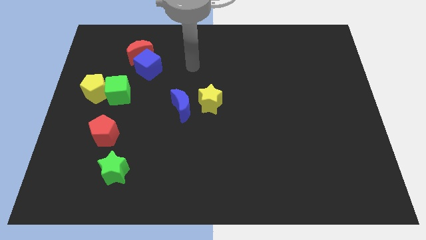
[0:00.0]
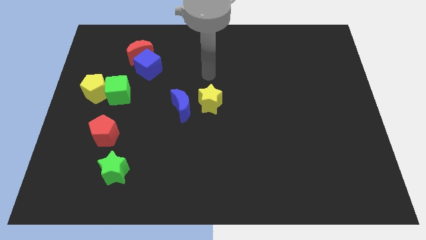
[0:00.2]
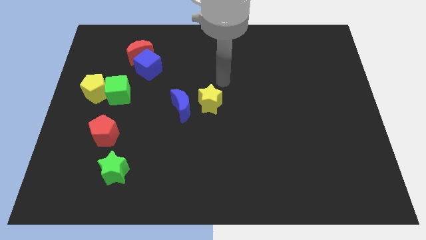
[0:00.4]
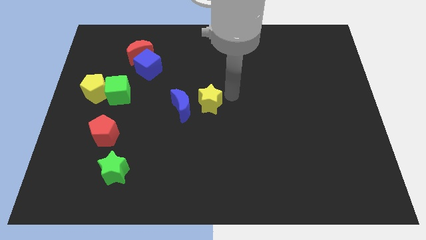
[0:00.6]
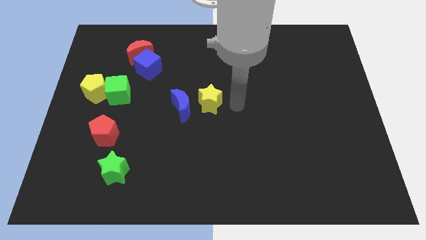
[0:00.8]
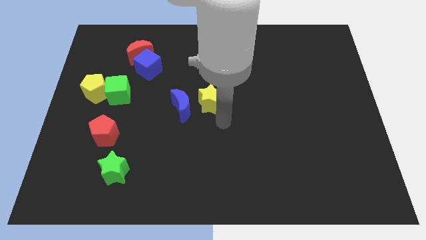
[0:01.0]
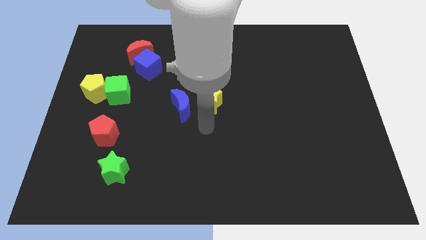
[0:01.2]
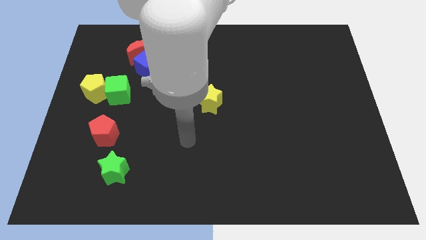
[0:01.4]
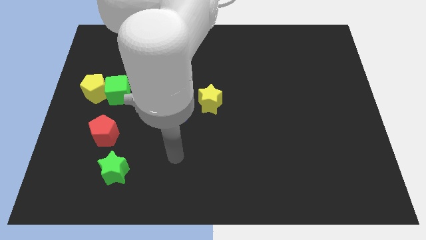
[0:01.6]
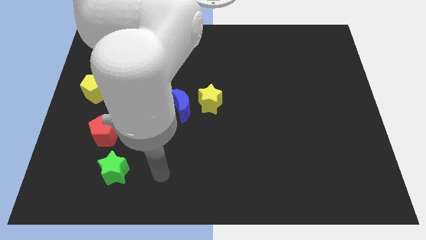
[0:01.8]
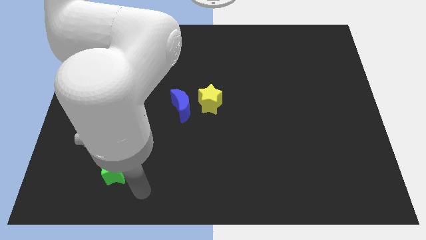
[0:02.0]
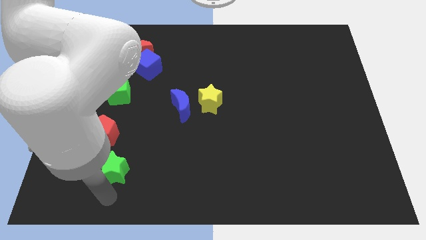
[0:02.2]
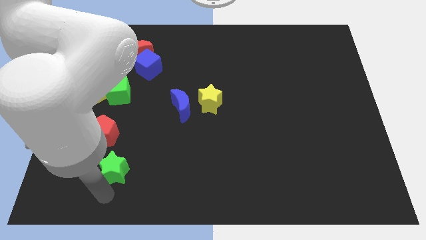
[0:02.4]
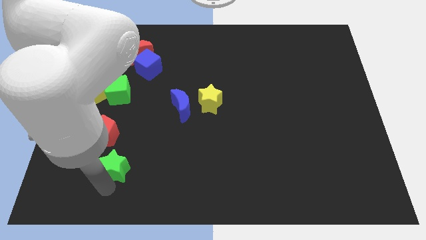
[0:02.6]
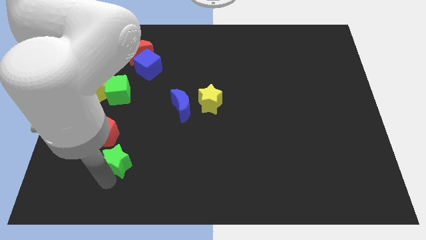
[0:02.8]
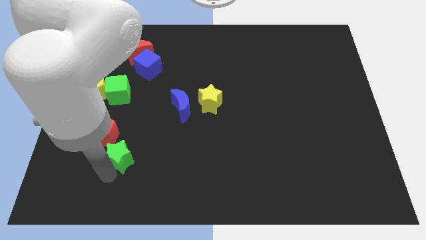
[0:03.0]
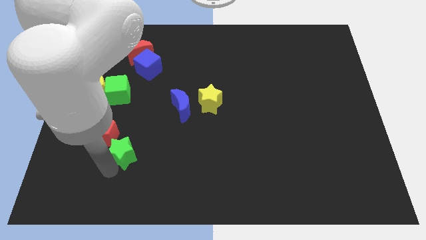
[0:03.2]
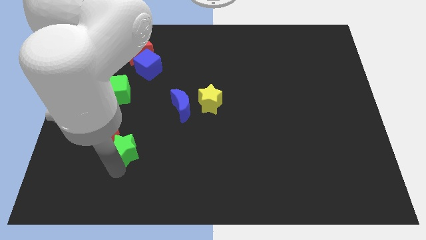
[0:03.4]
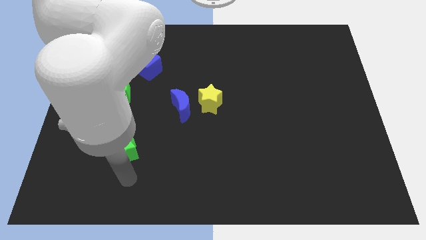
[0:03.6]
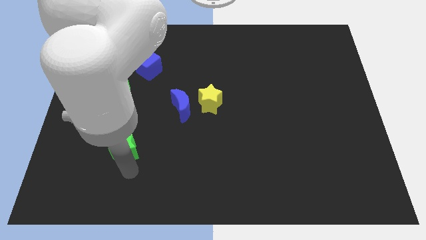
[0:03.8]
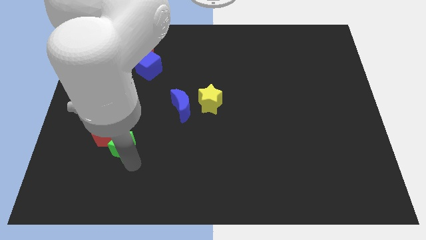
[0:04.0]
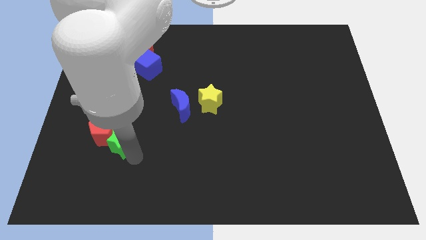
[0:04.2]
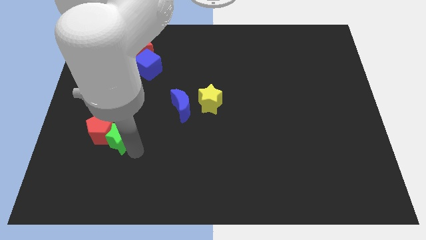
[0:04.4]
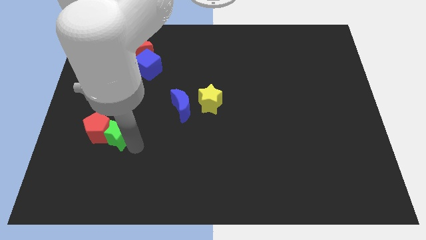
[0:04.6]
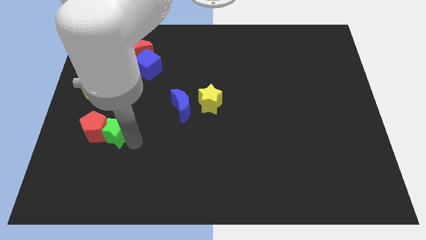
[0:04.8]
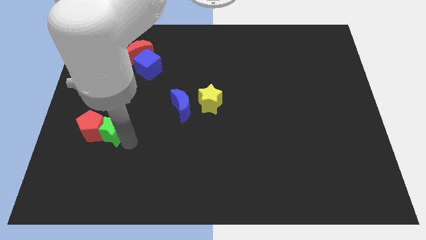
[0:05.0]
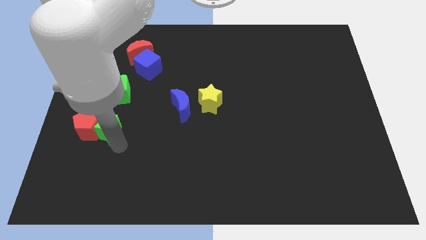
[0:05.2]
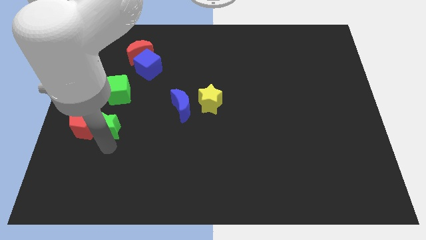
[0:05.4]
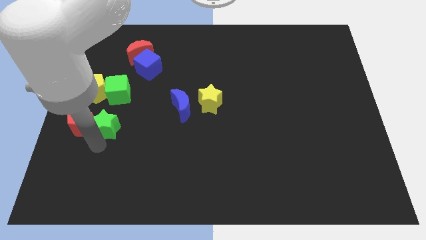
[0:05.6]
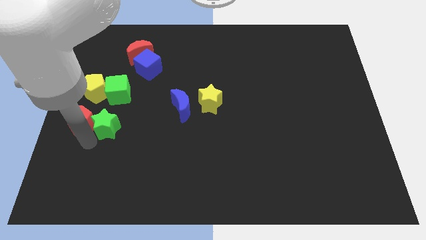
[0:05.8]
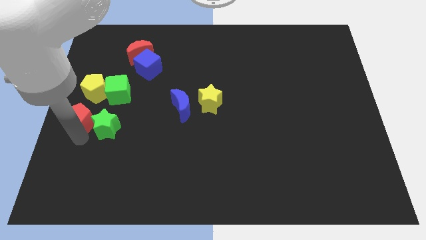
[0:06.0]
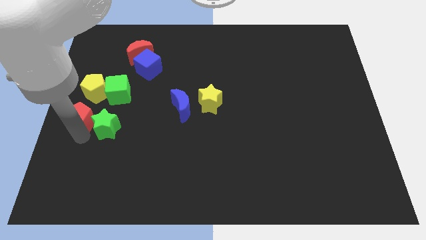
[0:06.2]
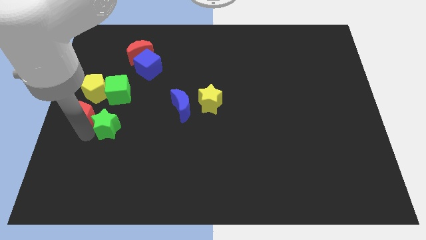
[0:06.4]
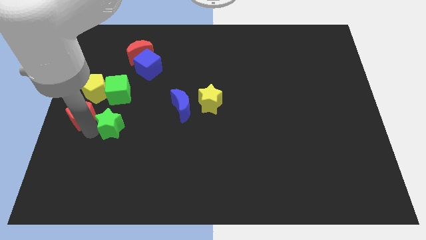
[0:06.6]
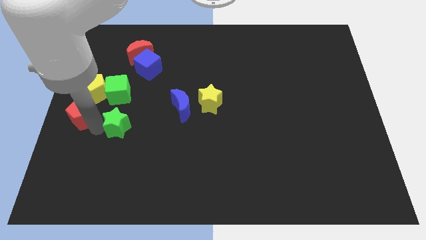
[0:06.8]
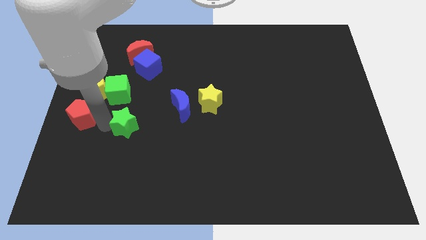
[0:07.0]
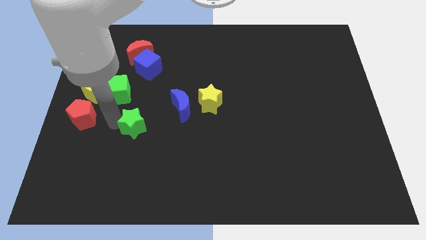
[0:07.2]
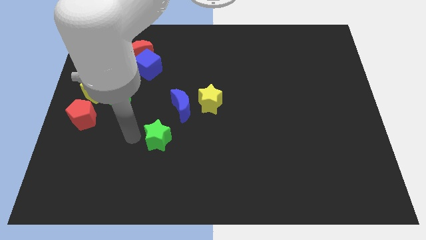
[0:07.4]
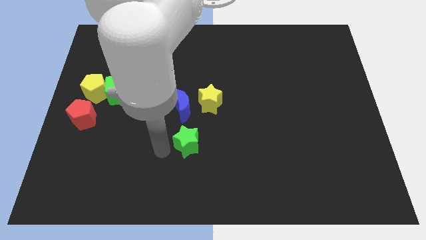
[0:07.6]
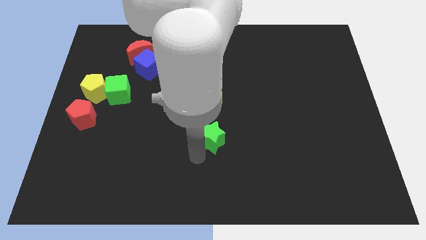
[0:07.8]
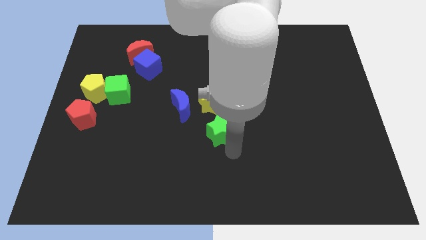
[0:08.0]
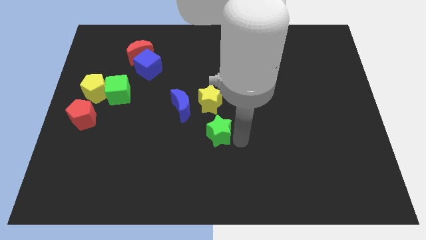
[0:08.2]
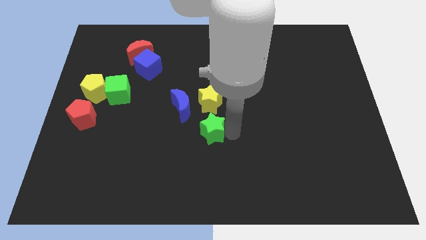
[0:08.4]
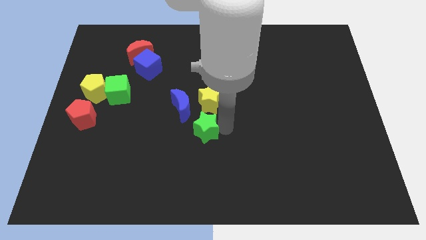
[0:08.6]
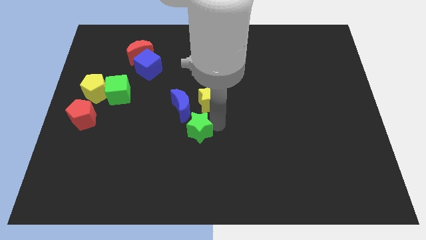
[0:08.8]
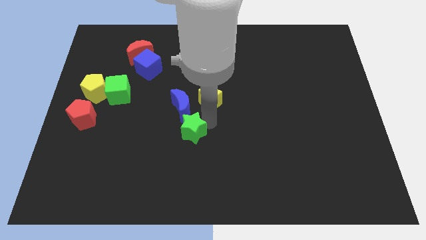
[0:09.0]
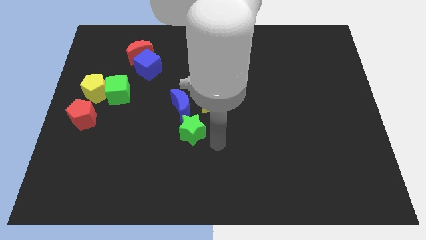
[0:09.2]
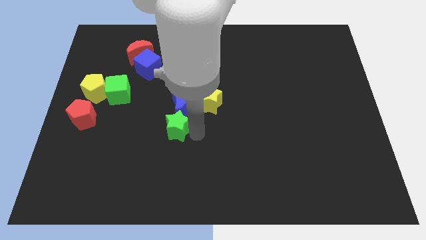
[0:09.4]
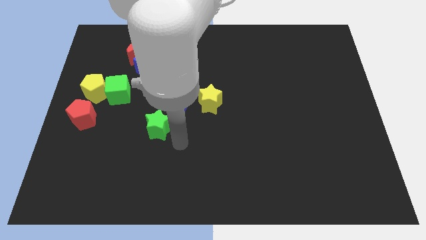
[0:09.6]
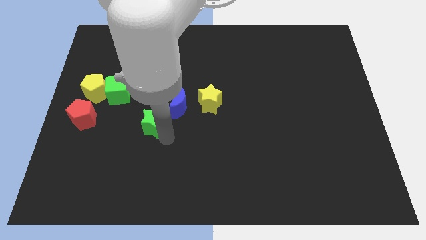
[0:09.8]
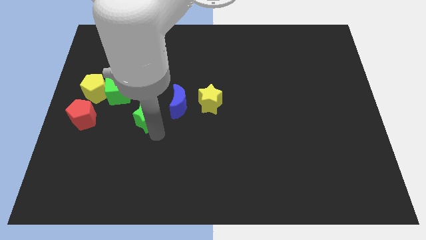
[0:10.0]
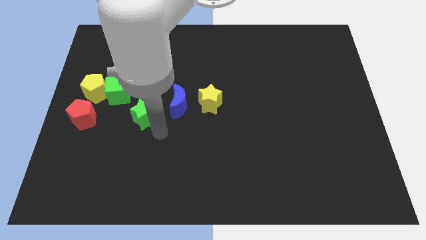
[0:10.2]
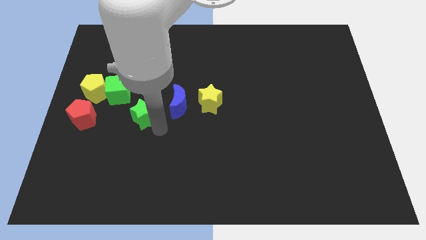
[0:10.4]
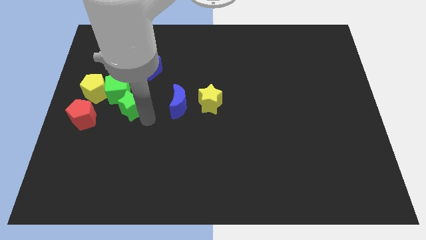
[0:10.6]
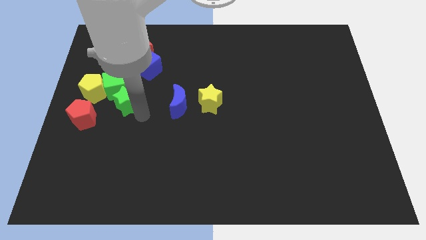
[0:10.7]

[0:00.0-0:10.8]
move the green star close to the green cube

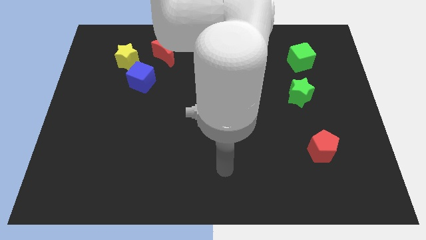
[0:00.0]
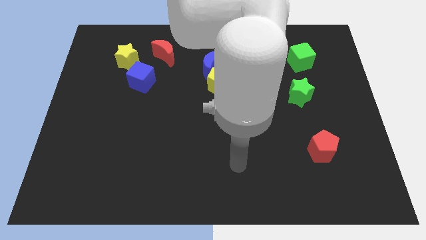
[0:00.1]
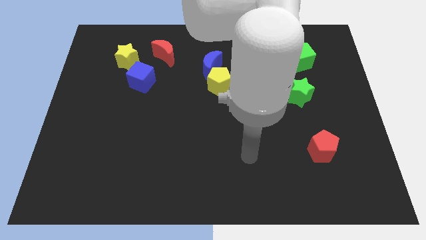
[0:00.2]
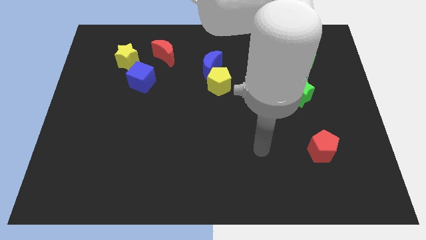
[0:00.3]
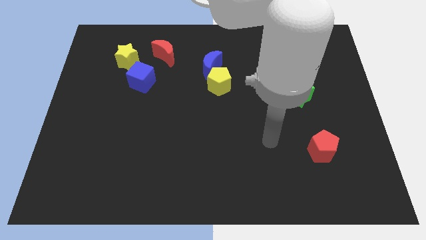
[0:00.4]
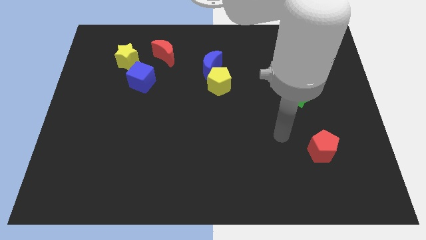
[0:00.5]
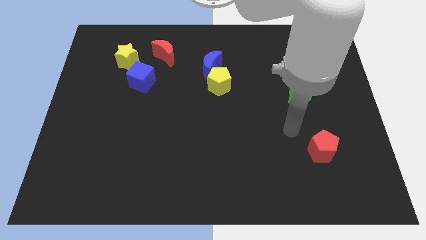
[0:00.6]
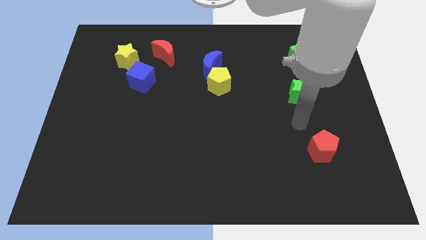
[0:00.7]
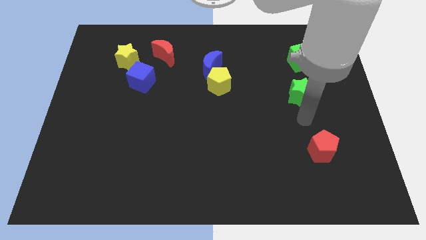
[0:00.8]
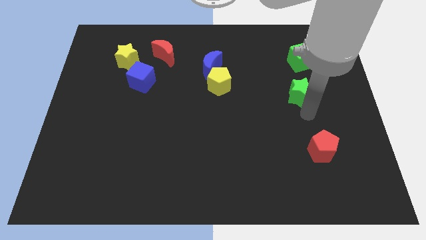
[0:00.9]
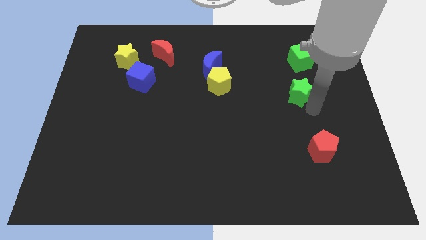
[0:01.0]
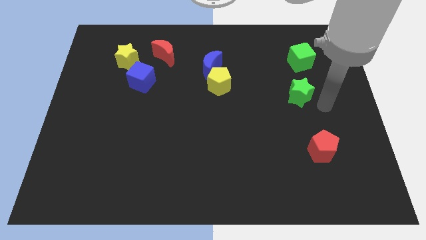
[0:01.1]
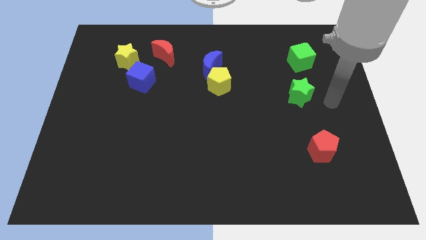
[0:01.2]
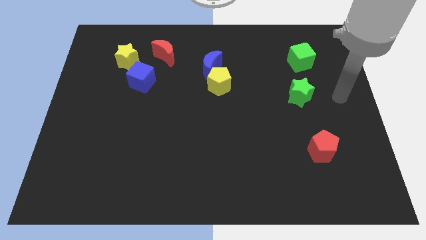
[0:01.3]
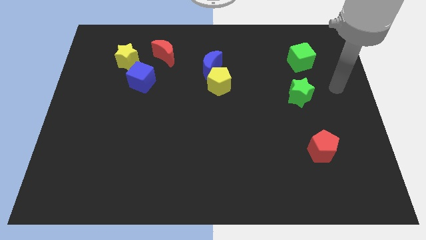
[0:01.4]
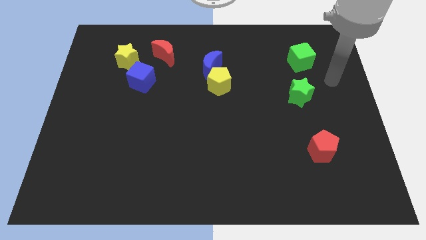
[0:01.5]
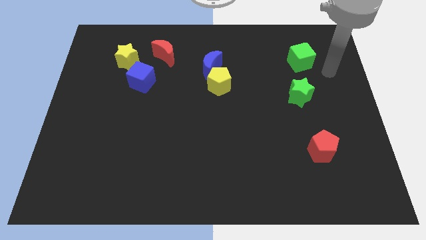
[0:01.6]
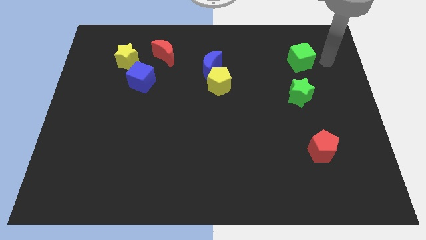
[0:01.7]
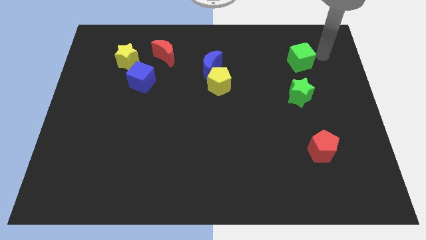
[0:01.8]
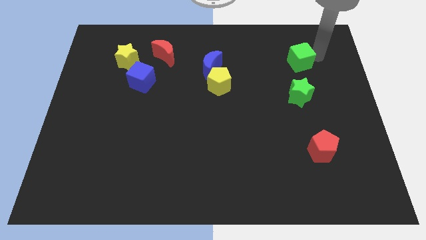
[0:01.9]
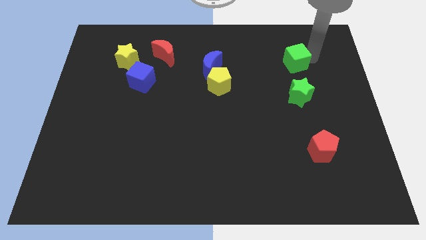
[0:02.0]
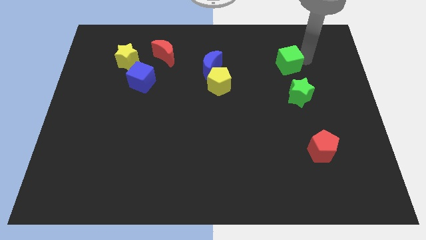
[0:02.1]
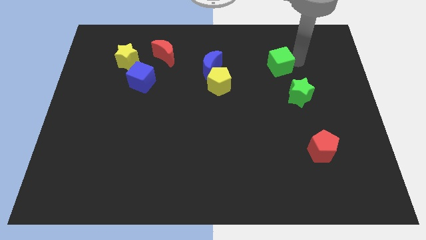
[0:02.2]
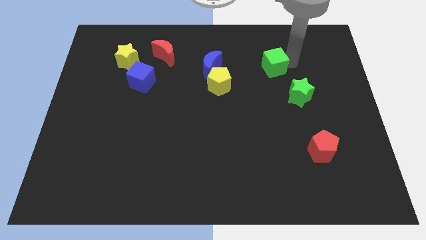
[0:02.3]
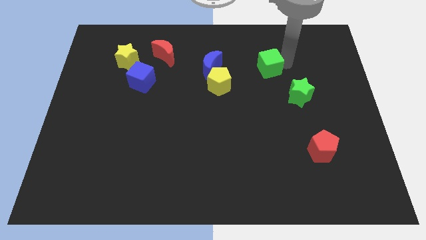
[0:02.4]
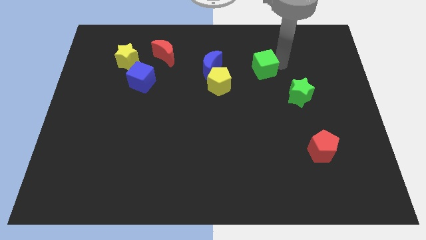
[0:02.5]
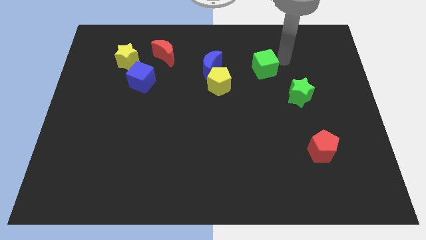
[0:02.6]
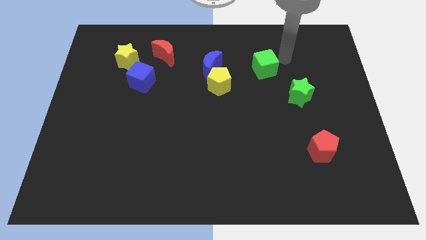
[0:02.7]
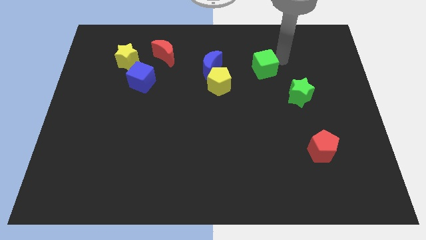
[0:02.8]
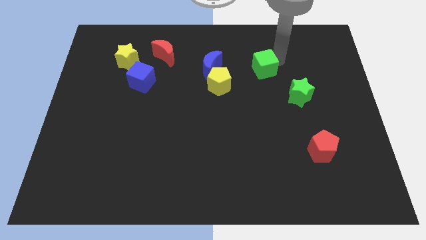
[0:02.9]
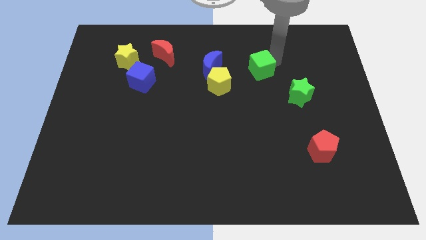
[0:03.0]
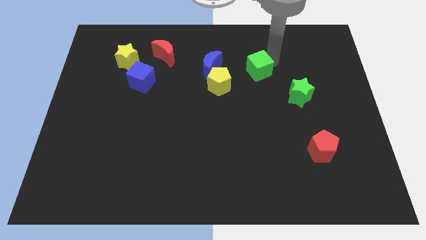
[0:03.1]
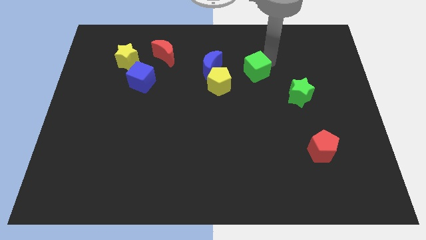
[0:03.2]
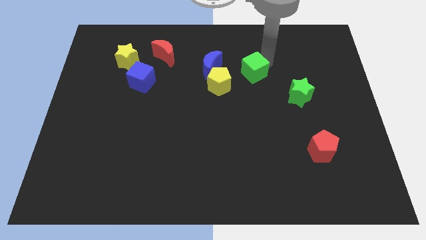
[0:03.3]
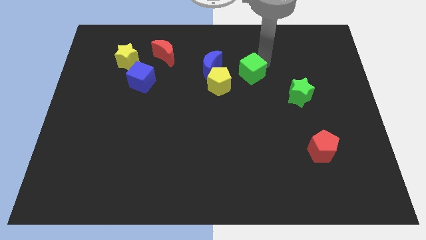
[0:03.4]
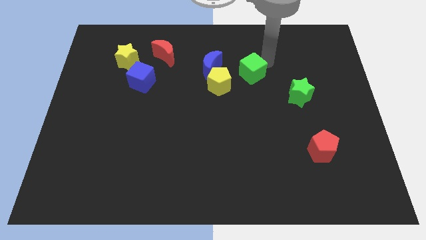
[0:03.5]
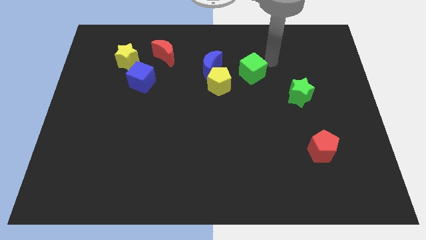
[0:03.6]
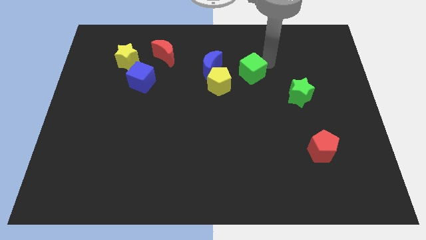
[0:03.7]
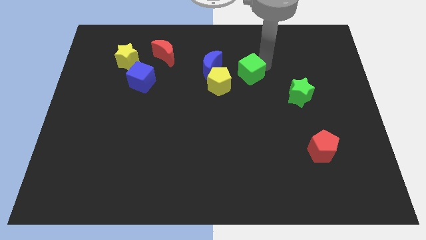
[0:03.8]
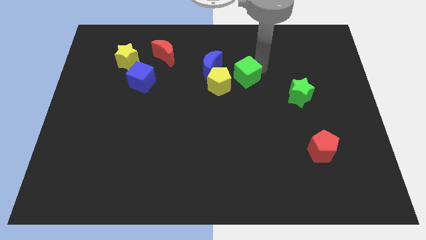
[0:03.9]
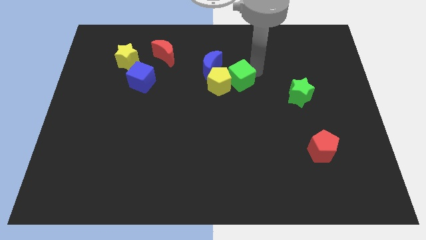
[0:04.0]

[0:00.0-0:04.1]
slide the green cube towards the yellow pentagon
